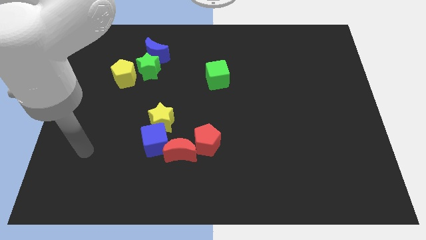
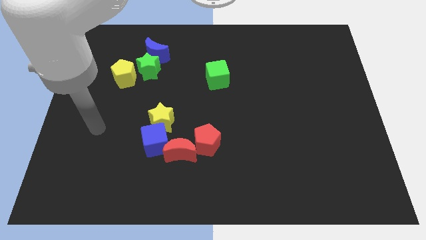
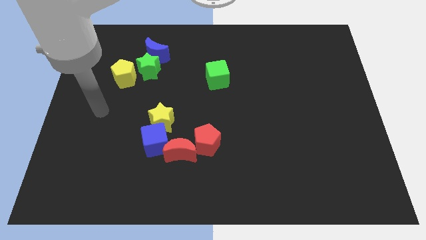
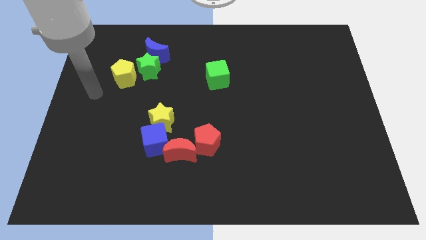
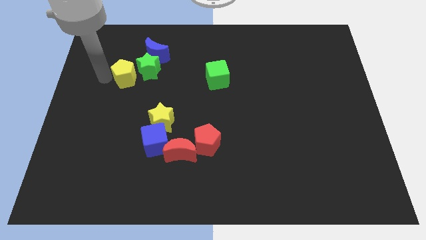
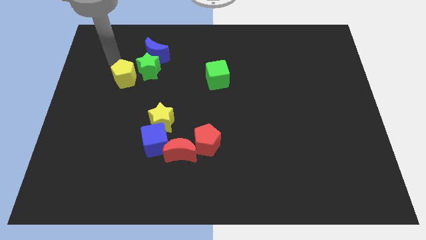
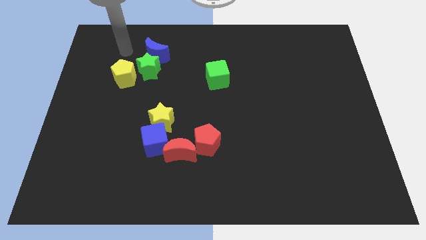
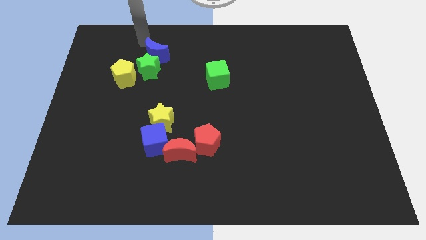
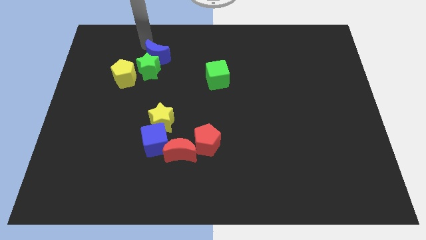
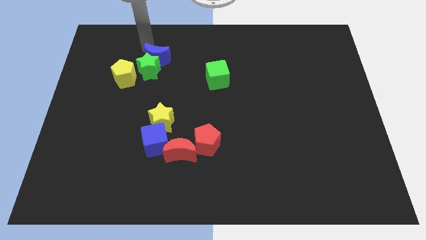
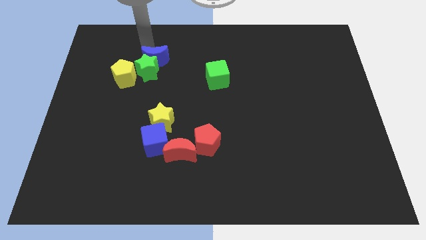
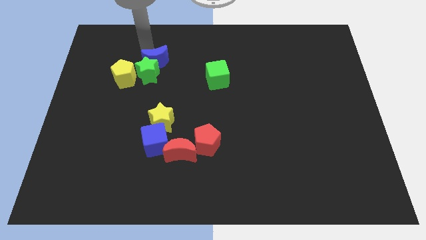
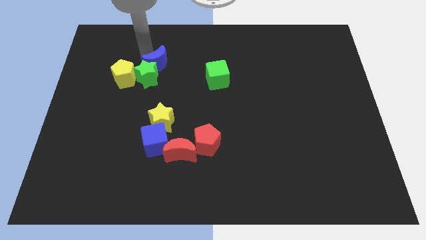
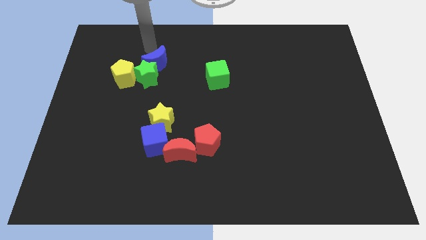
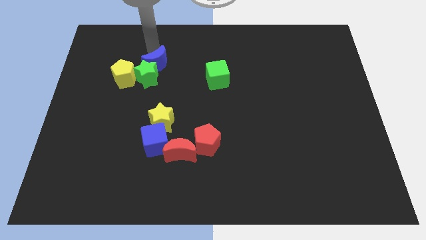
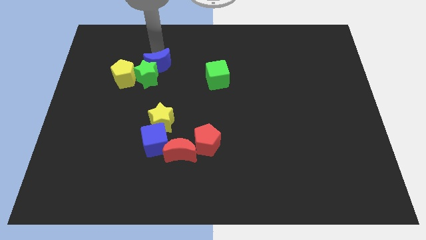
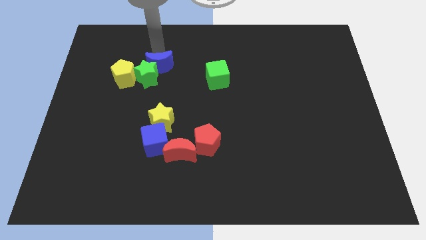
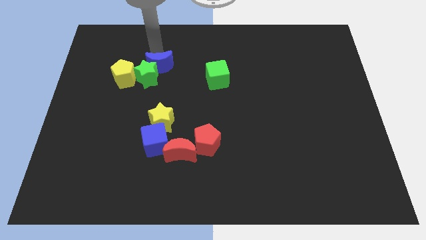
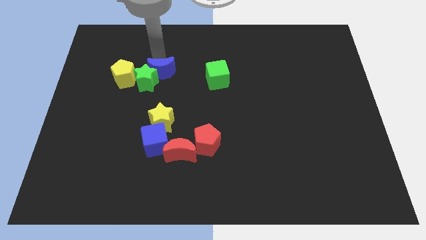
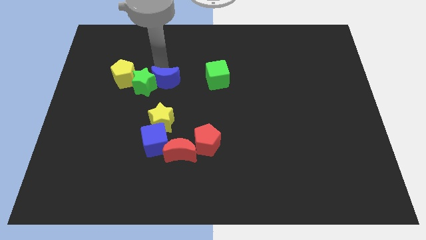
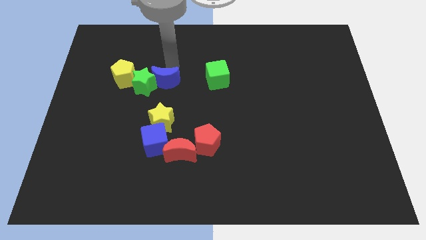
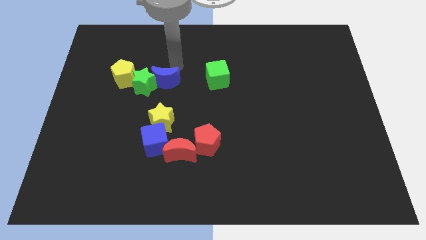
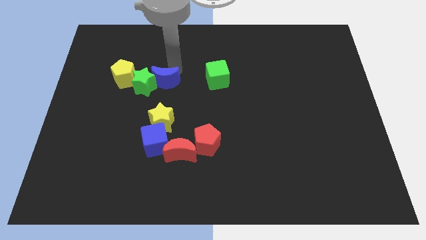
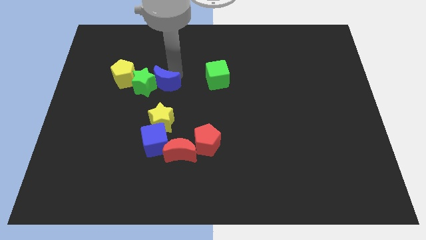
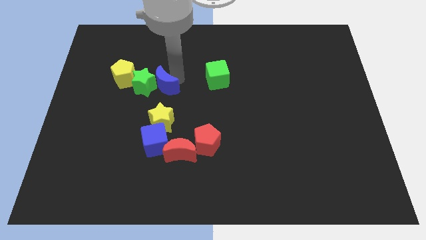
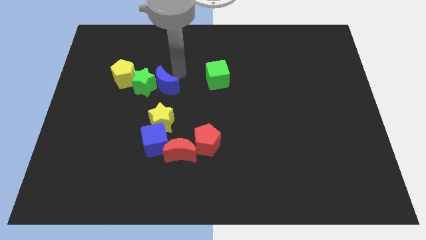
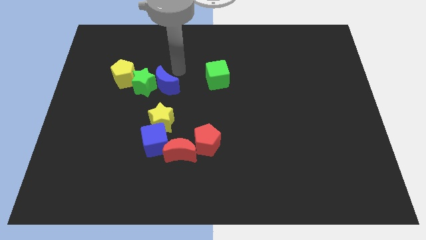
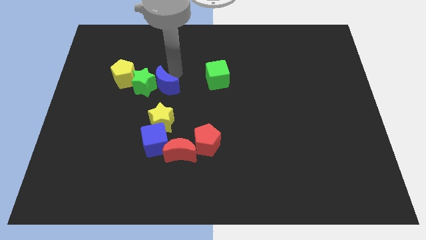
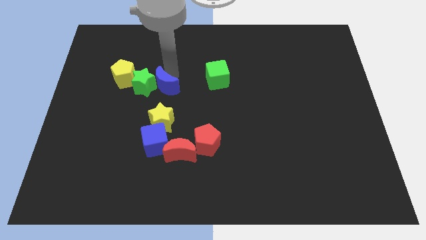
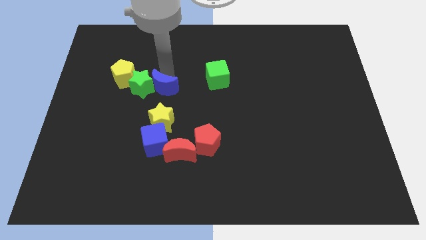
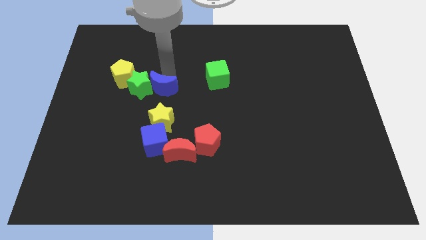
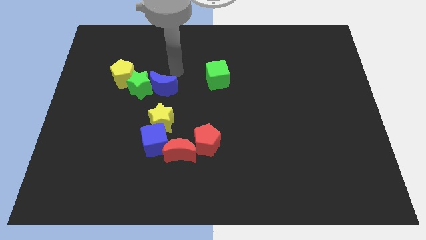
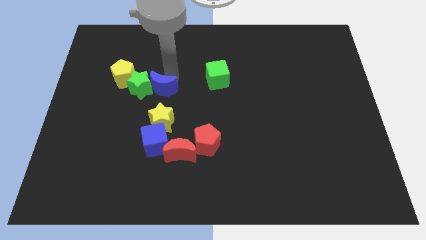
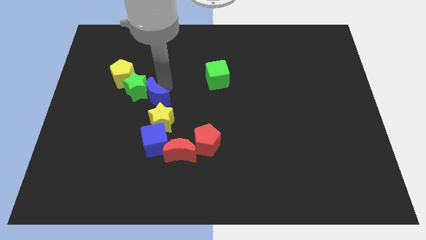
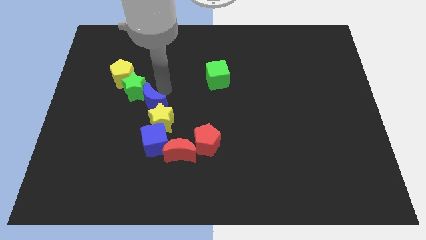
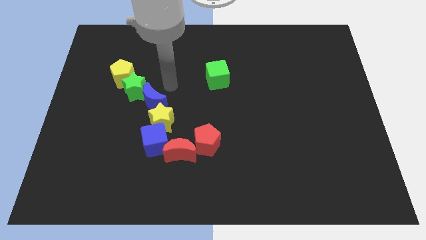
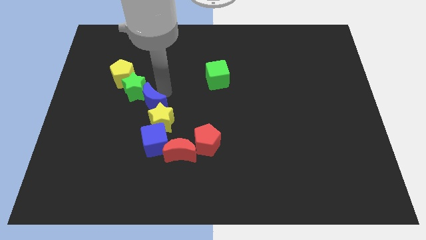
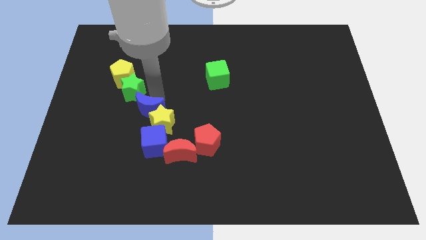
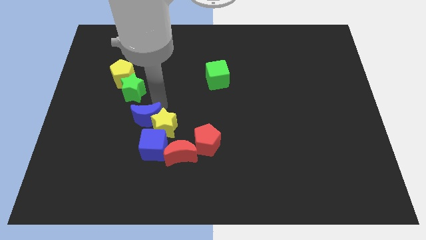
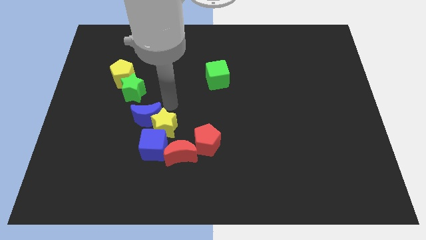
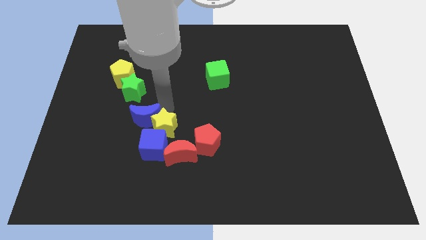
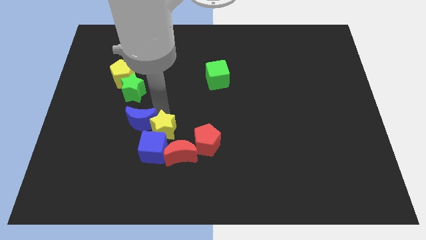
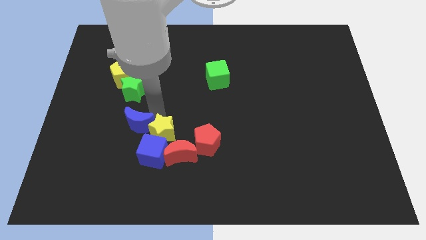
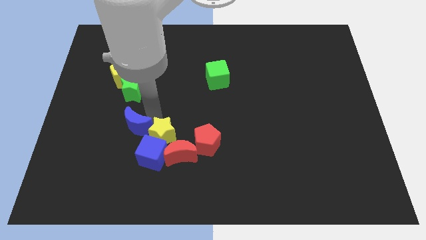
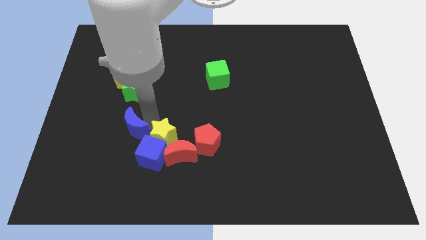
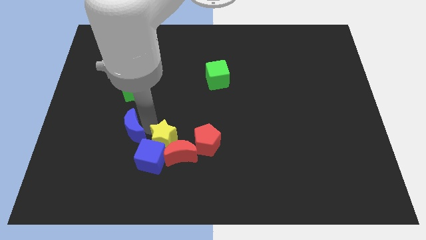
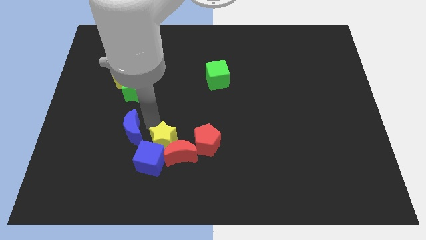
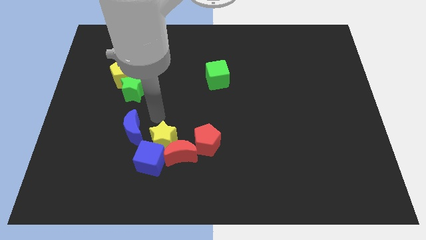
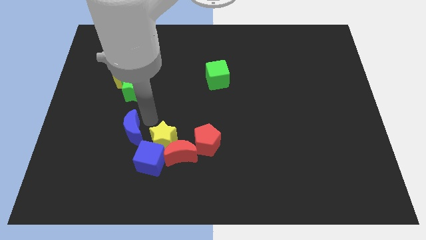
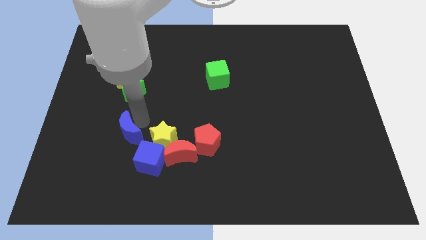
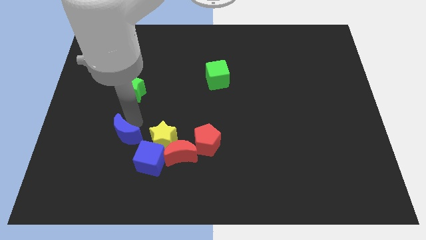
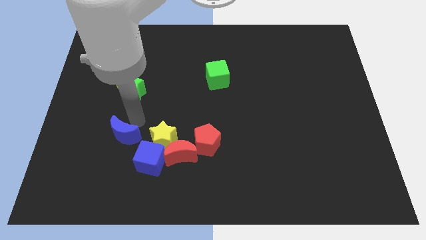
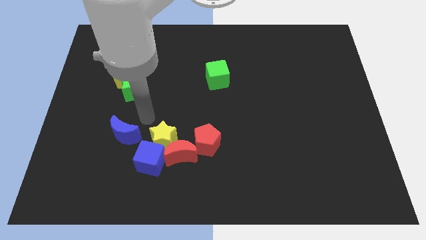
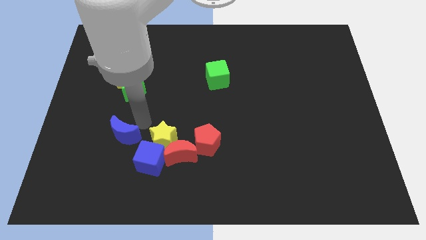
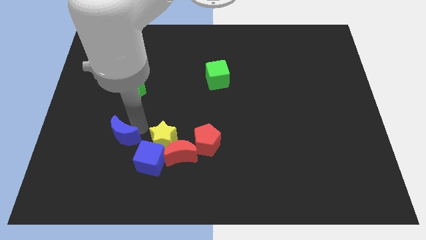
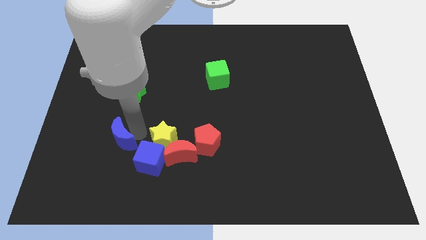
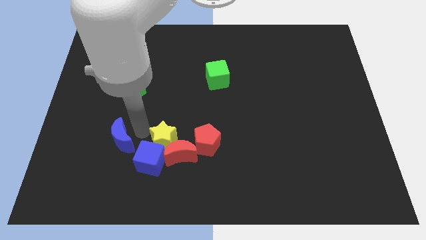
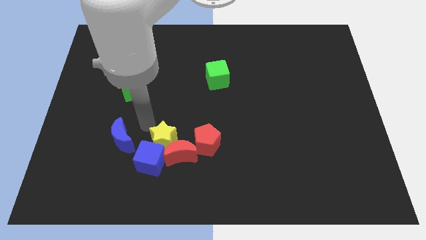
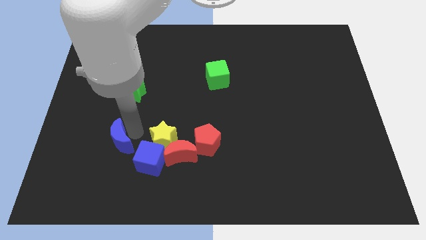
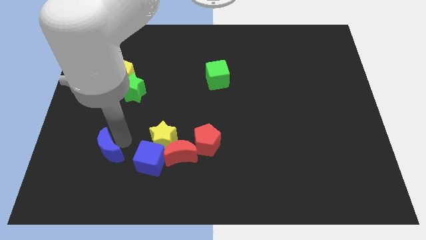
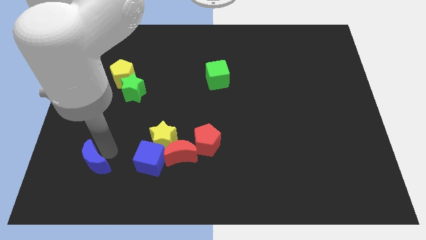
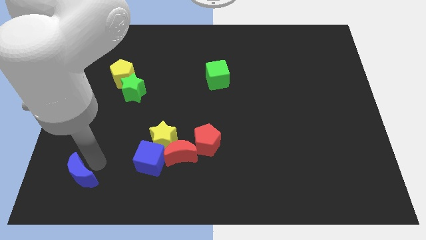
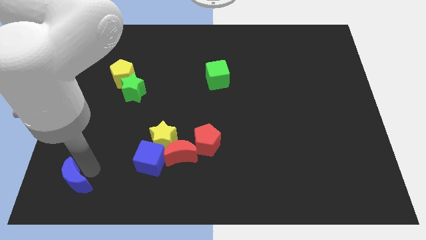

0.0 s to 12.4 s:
move the blue moon to the lower left corner
